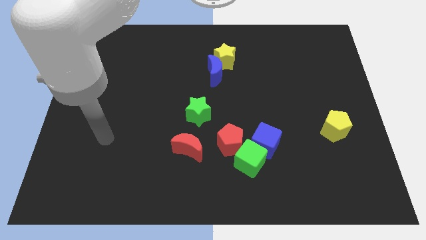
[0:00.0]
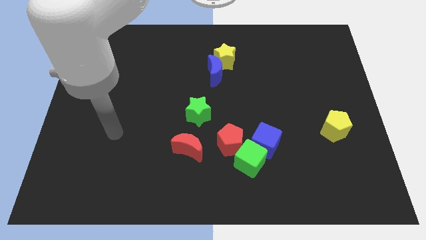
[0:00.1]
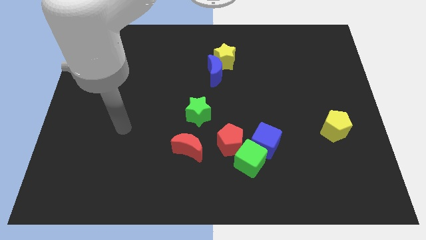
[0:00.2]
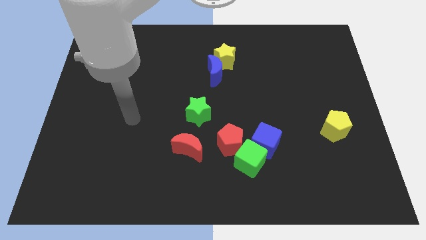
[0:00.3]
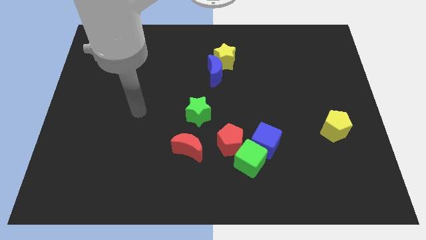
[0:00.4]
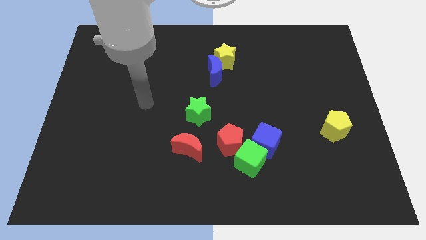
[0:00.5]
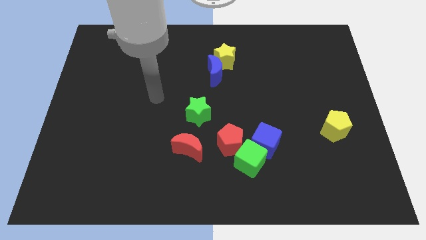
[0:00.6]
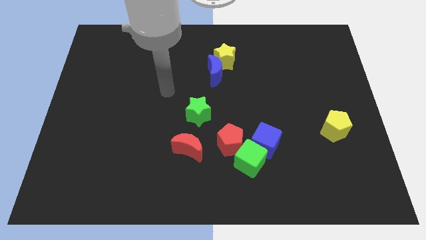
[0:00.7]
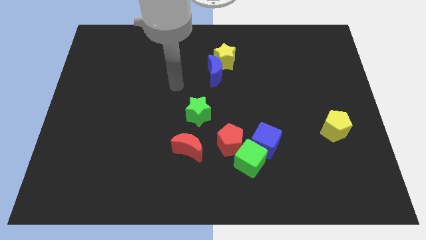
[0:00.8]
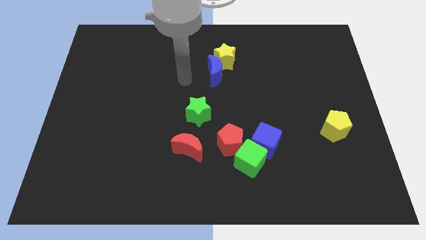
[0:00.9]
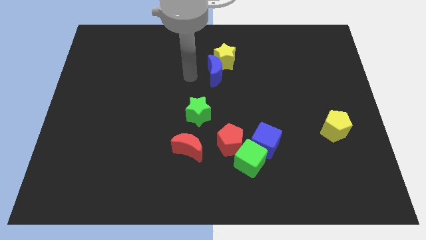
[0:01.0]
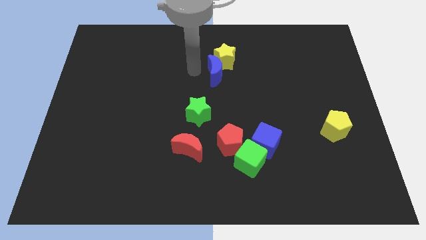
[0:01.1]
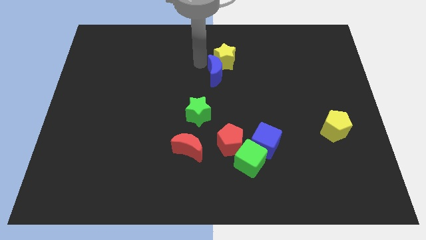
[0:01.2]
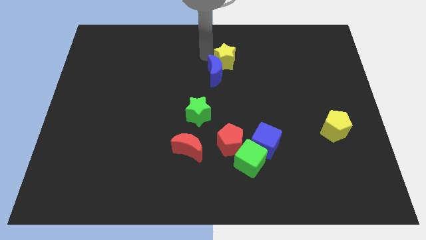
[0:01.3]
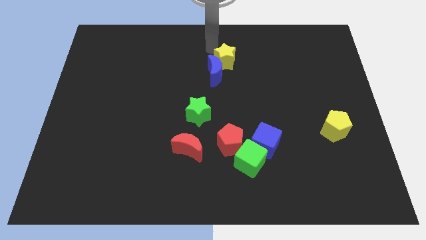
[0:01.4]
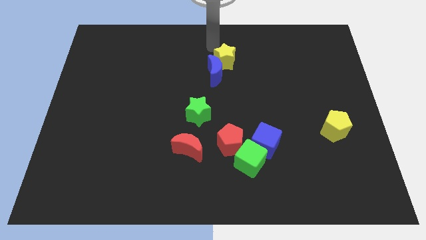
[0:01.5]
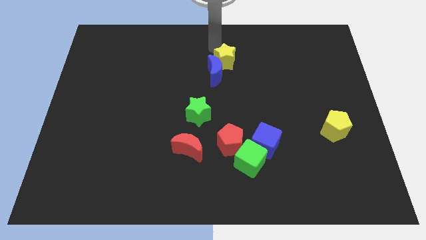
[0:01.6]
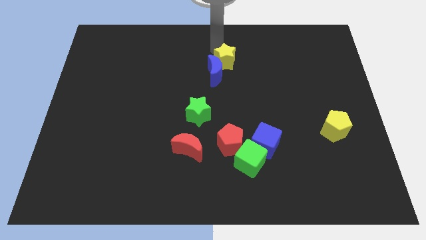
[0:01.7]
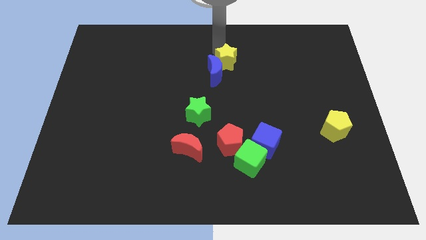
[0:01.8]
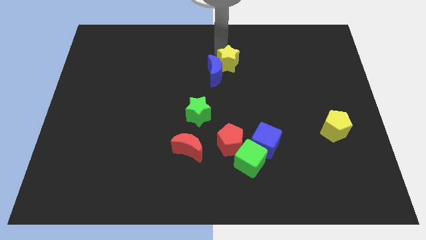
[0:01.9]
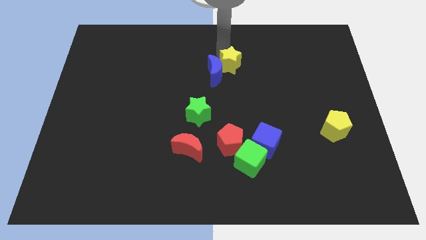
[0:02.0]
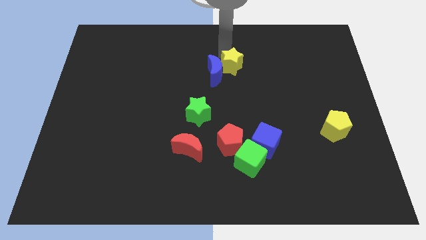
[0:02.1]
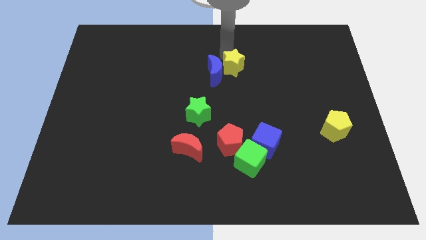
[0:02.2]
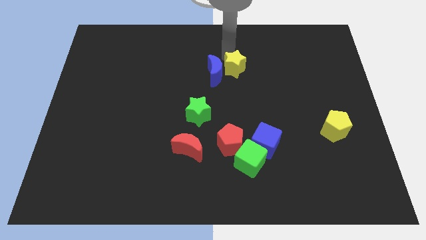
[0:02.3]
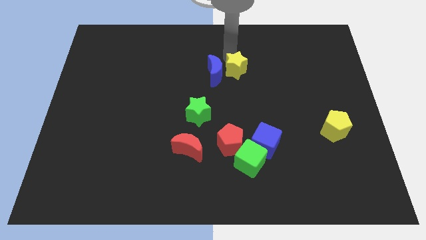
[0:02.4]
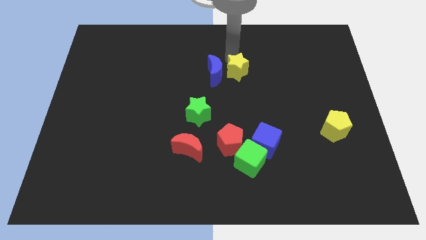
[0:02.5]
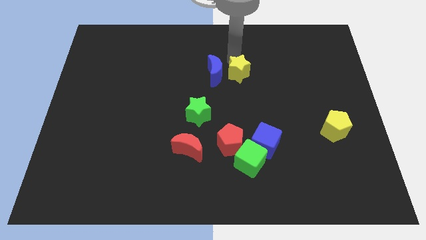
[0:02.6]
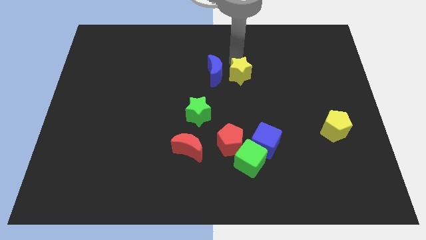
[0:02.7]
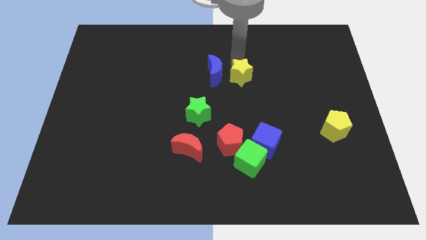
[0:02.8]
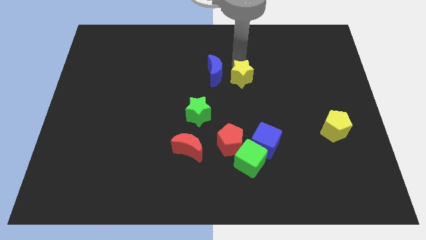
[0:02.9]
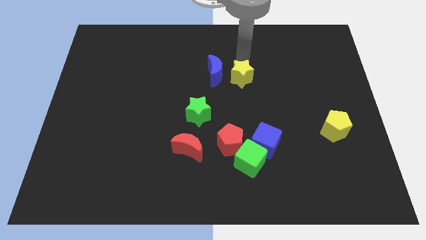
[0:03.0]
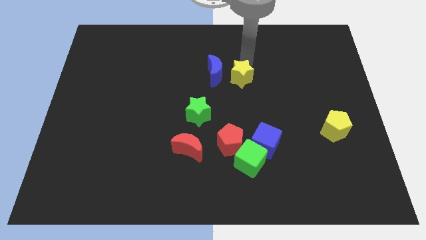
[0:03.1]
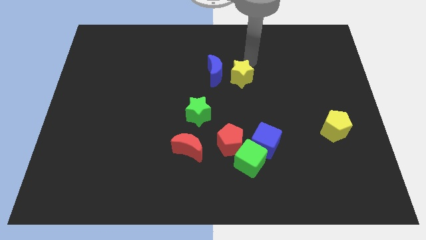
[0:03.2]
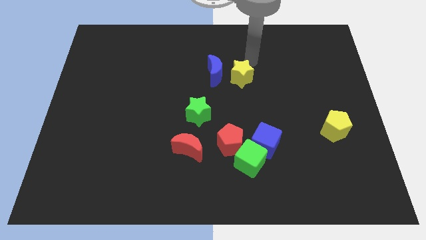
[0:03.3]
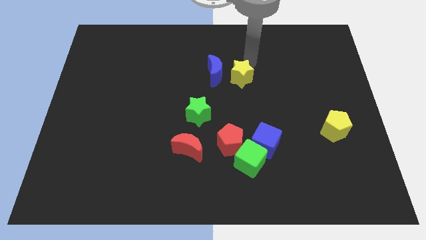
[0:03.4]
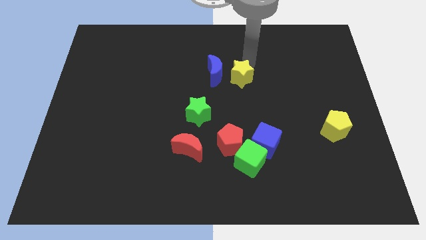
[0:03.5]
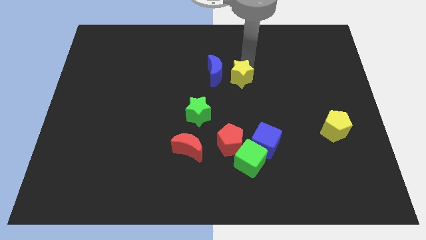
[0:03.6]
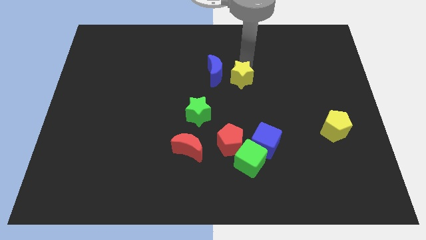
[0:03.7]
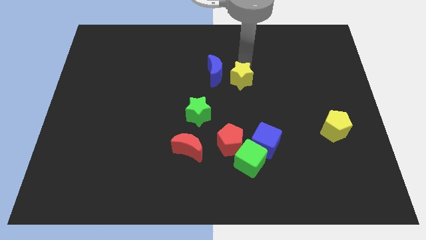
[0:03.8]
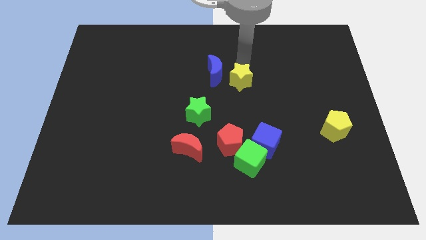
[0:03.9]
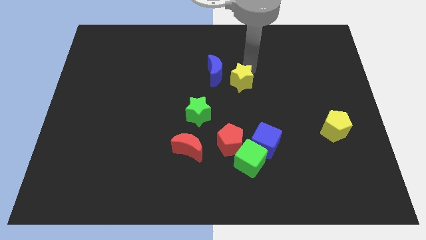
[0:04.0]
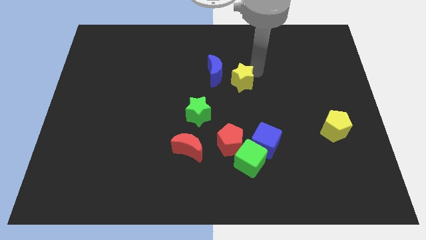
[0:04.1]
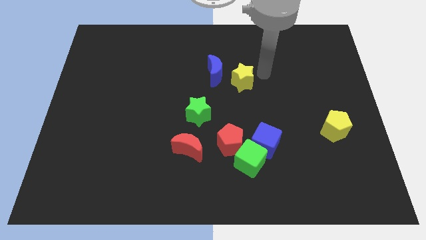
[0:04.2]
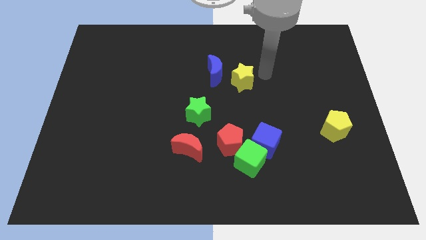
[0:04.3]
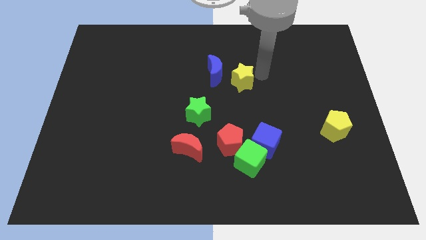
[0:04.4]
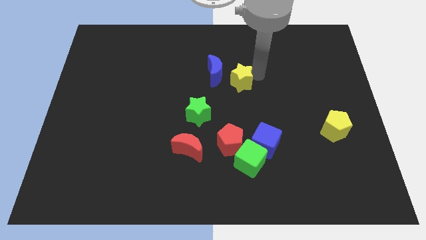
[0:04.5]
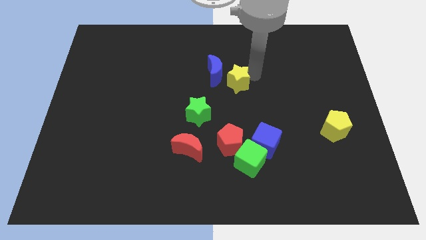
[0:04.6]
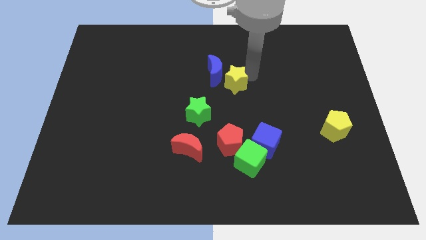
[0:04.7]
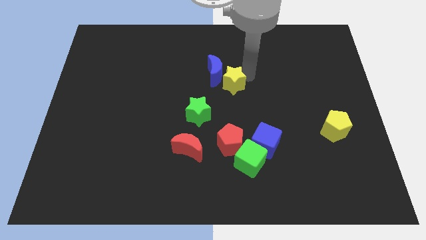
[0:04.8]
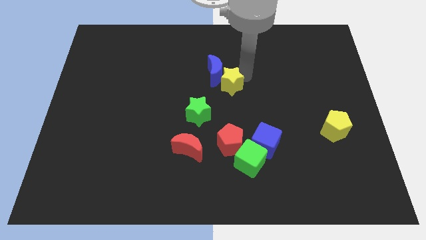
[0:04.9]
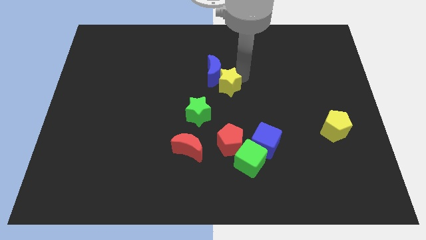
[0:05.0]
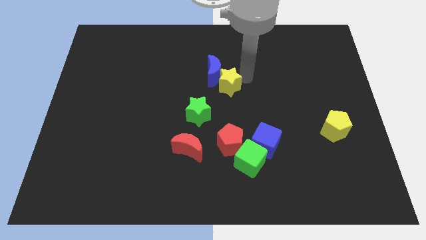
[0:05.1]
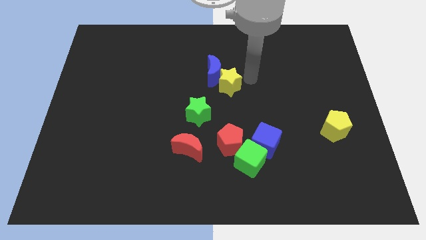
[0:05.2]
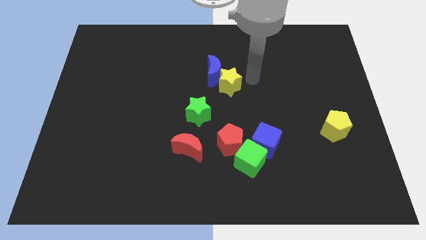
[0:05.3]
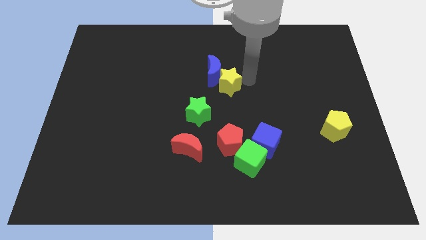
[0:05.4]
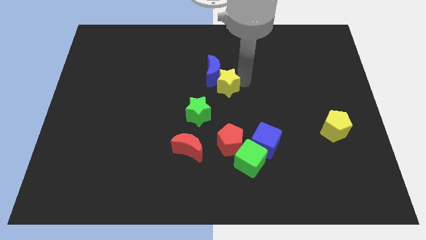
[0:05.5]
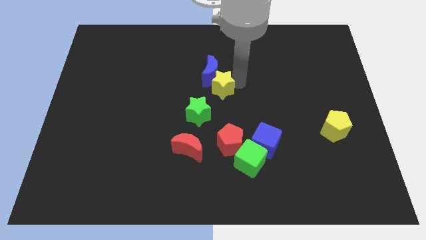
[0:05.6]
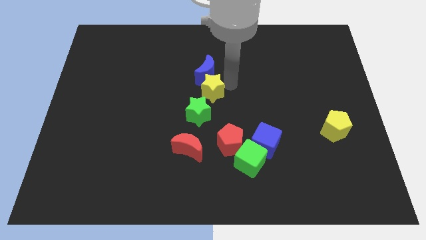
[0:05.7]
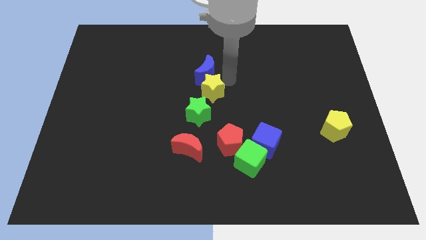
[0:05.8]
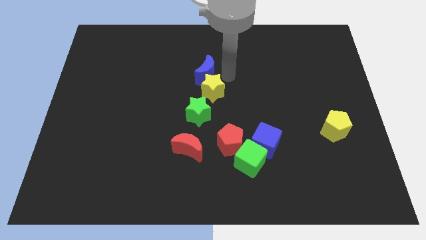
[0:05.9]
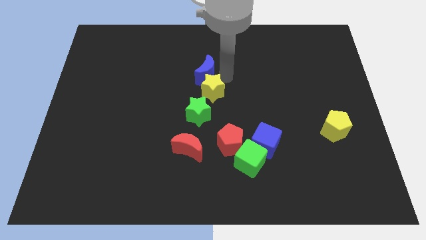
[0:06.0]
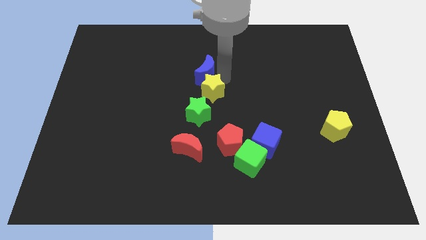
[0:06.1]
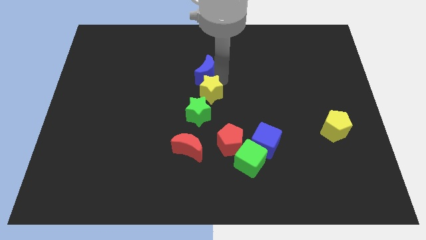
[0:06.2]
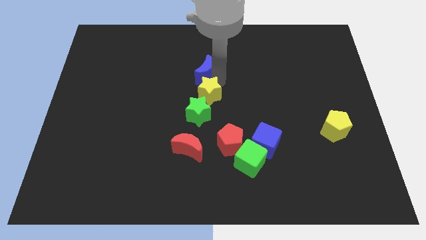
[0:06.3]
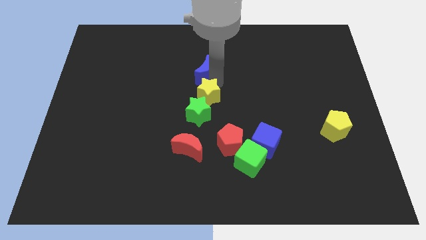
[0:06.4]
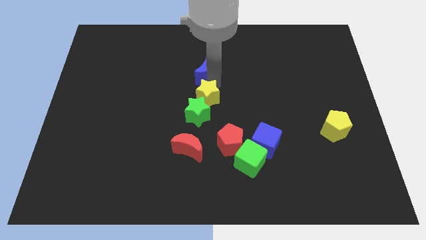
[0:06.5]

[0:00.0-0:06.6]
move the yellow star above the red moon
